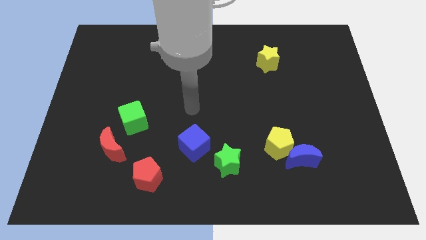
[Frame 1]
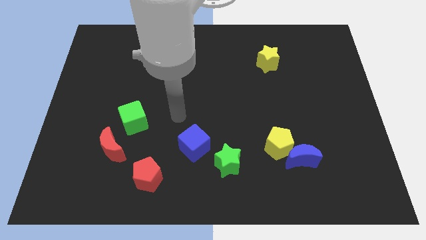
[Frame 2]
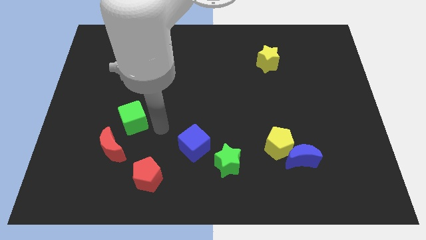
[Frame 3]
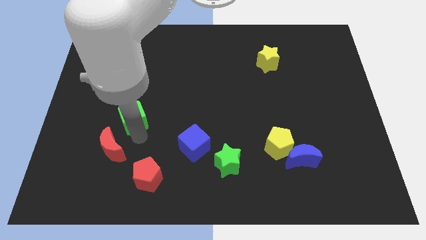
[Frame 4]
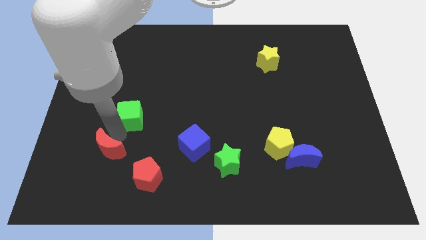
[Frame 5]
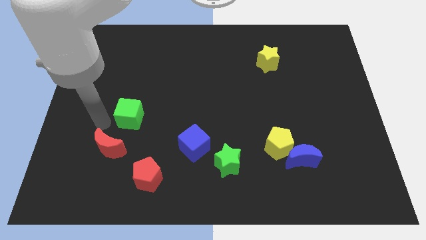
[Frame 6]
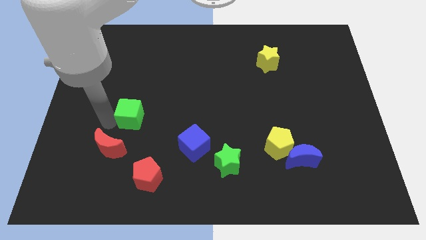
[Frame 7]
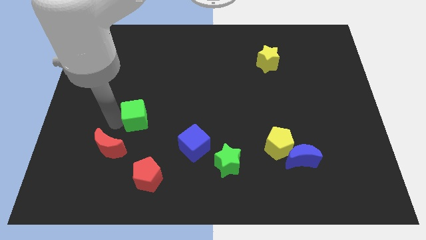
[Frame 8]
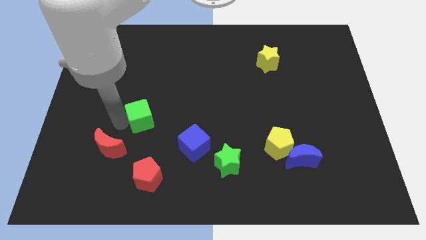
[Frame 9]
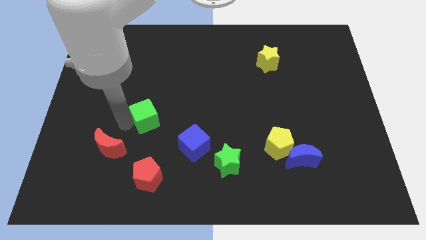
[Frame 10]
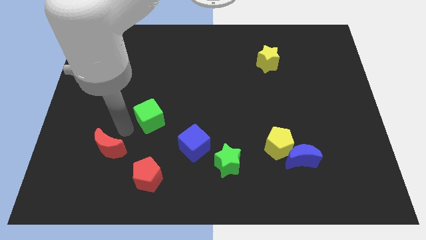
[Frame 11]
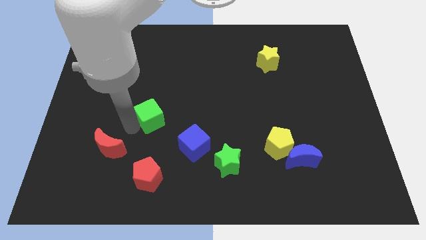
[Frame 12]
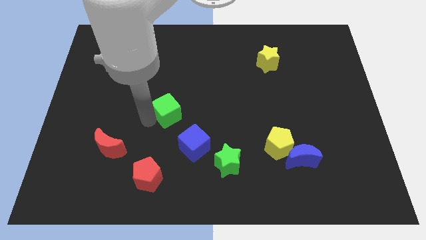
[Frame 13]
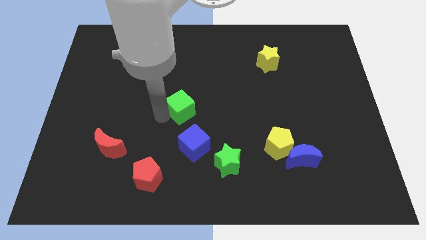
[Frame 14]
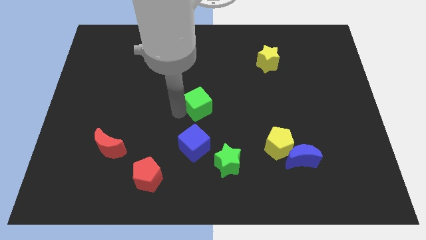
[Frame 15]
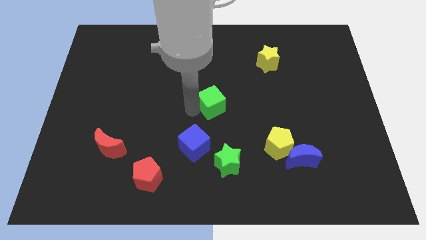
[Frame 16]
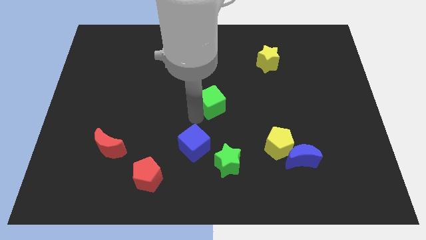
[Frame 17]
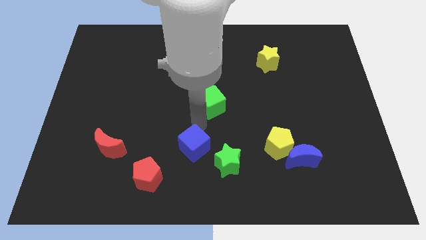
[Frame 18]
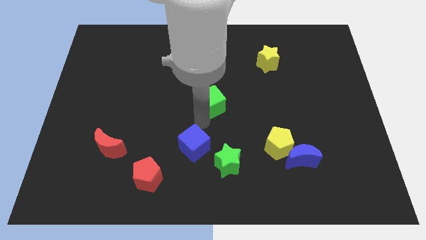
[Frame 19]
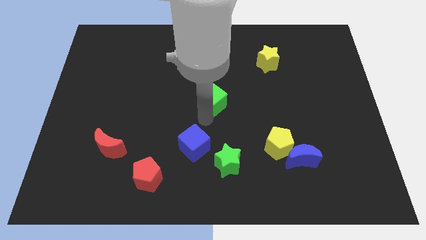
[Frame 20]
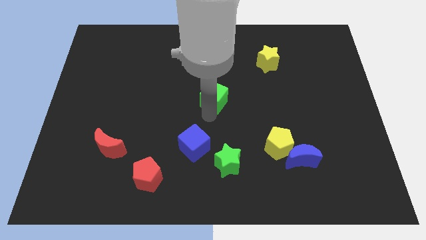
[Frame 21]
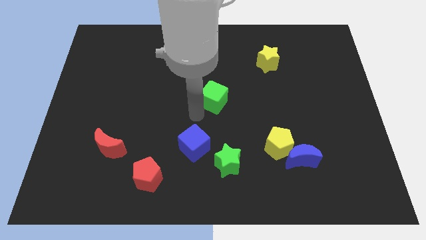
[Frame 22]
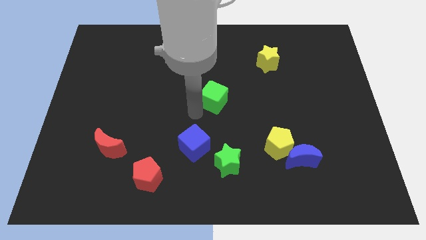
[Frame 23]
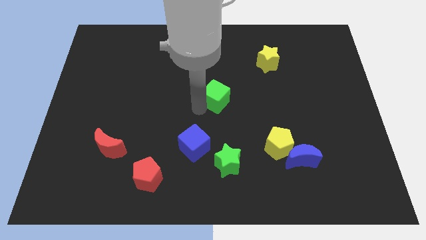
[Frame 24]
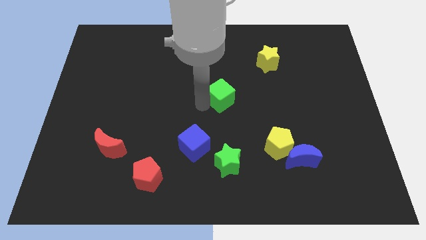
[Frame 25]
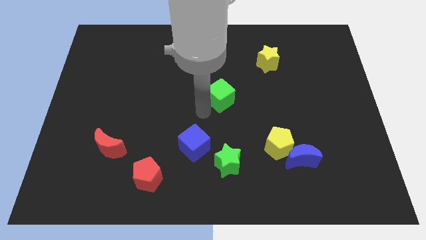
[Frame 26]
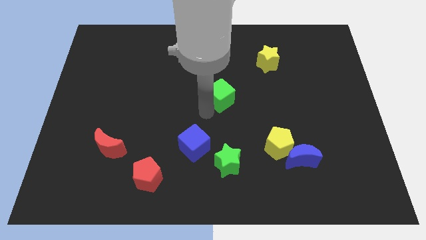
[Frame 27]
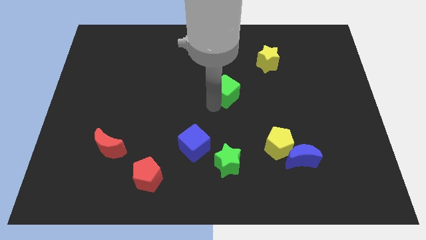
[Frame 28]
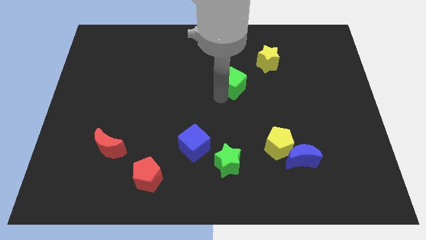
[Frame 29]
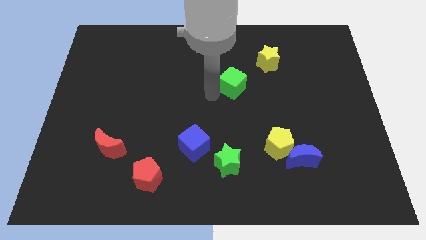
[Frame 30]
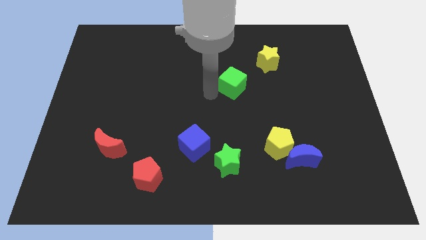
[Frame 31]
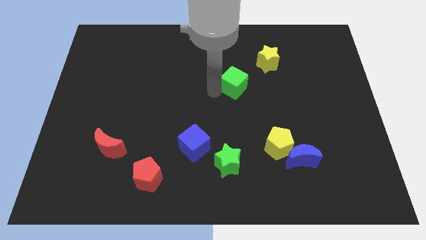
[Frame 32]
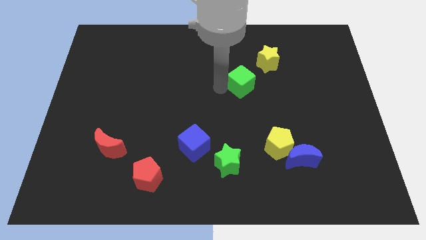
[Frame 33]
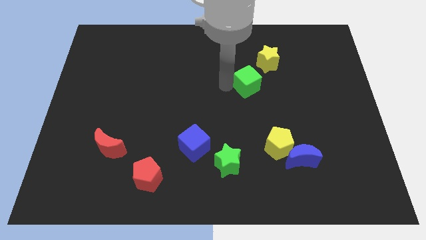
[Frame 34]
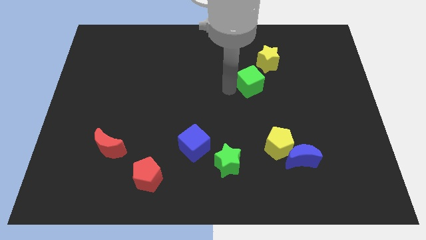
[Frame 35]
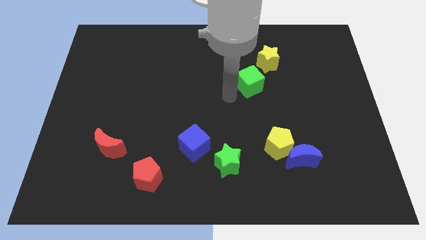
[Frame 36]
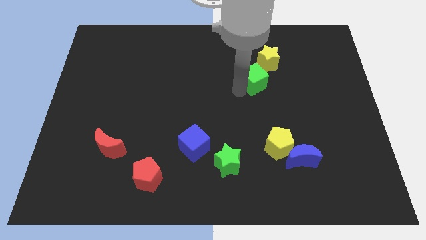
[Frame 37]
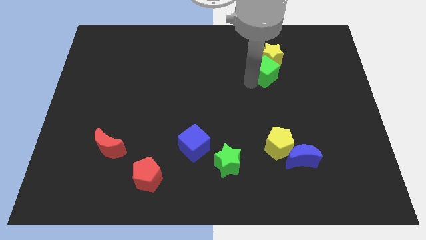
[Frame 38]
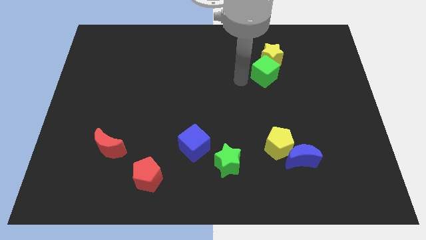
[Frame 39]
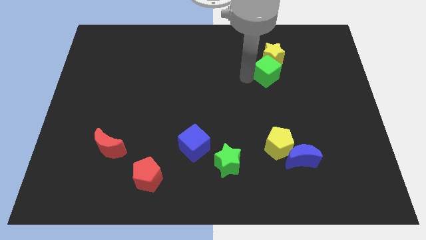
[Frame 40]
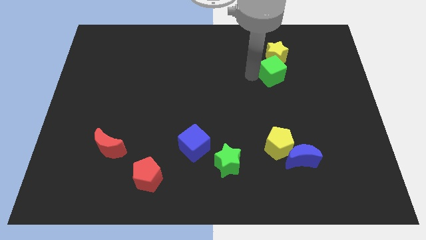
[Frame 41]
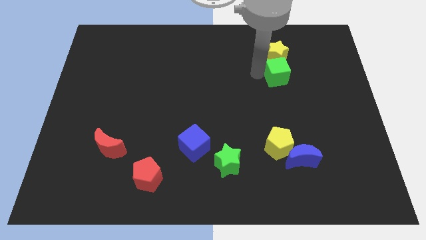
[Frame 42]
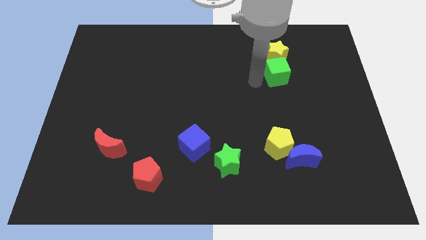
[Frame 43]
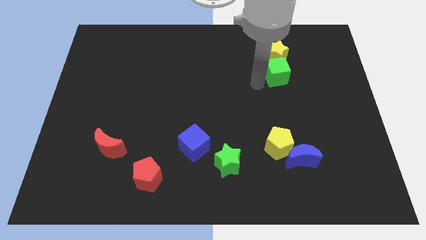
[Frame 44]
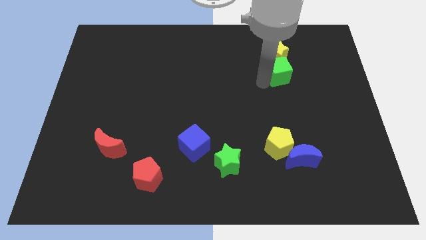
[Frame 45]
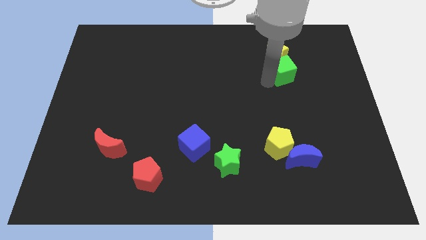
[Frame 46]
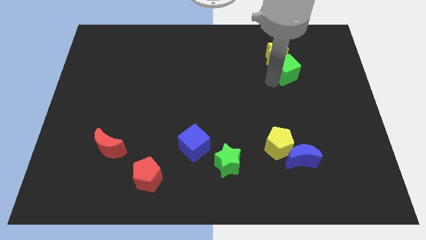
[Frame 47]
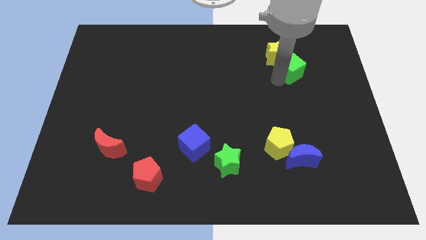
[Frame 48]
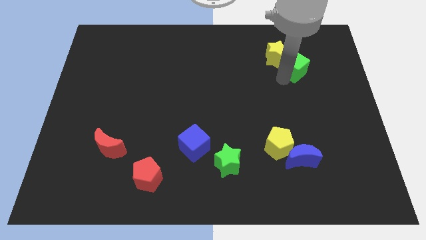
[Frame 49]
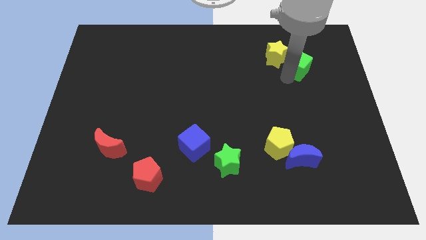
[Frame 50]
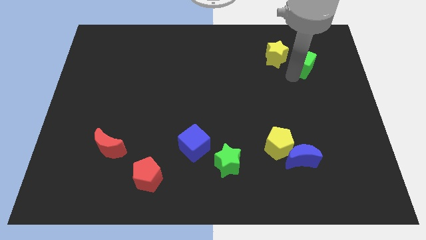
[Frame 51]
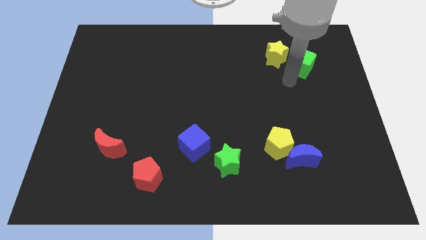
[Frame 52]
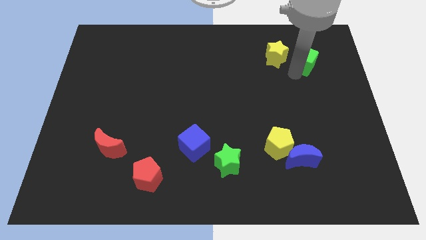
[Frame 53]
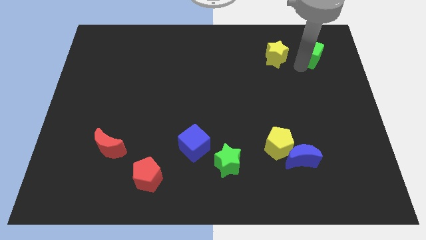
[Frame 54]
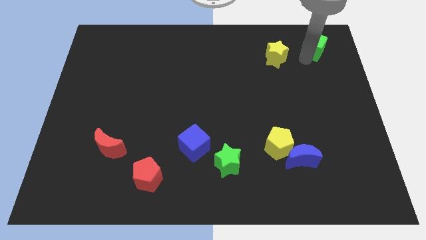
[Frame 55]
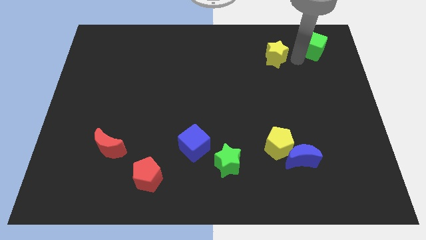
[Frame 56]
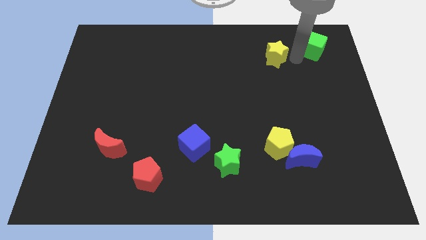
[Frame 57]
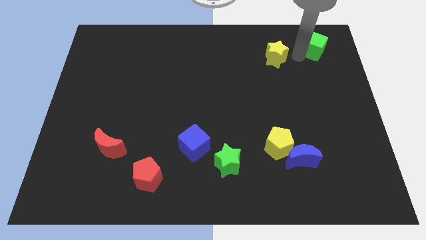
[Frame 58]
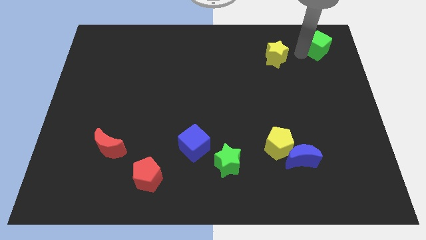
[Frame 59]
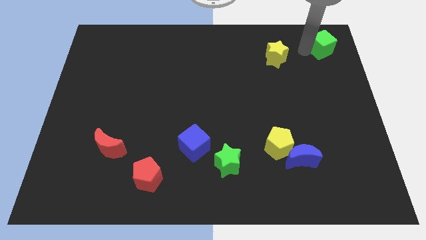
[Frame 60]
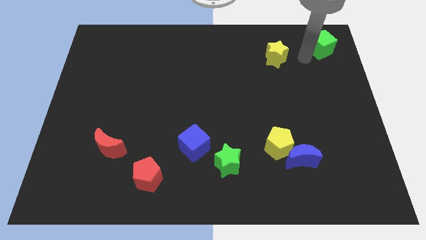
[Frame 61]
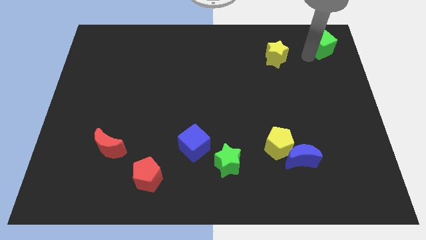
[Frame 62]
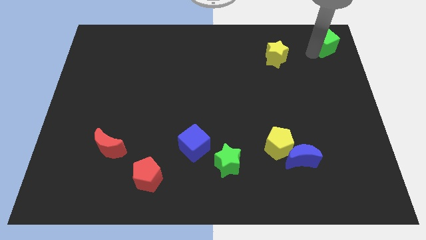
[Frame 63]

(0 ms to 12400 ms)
put the green cube to the top right

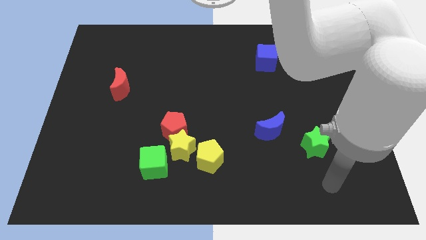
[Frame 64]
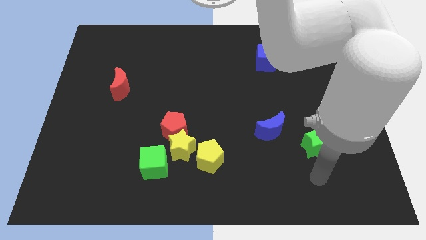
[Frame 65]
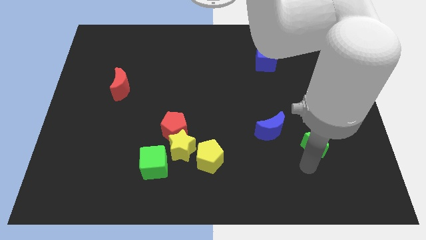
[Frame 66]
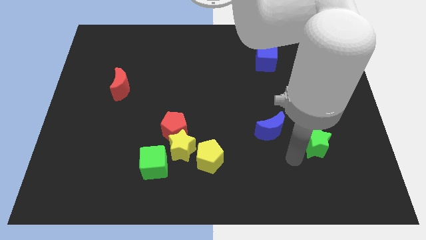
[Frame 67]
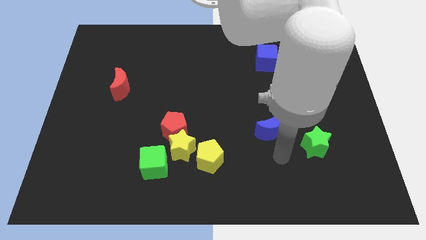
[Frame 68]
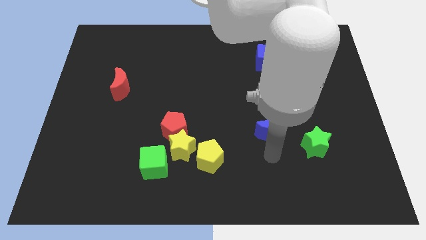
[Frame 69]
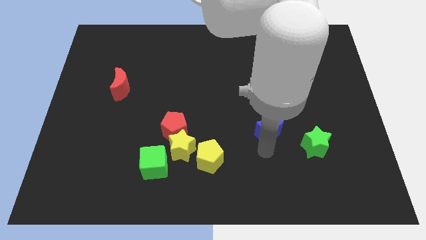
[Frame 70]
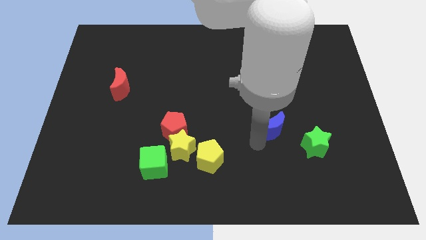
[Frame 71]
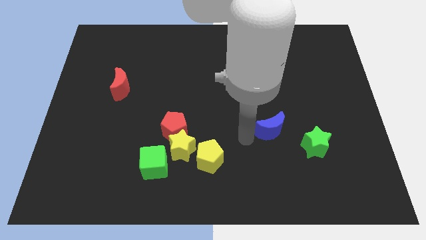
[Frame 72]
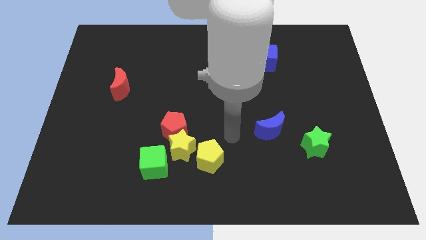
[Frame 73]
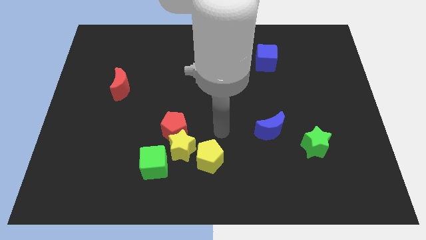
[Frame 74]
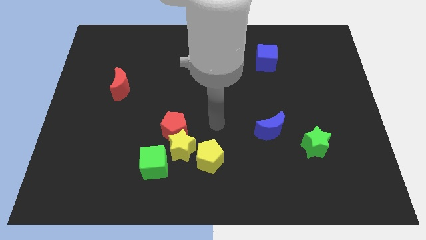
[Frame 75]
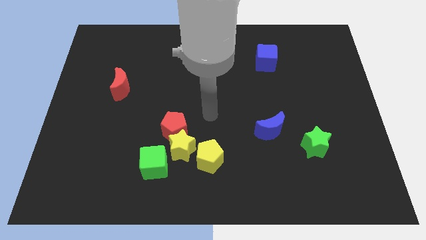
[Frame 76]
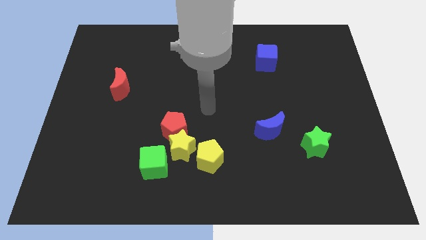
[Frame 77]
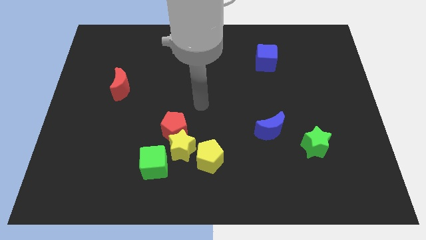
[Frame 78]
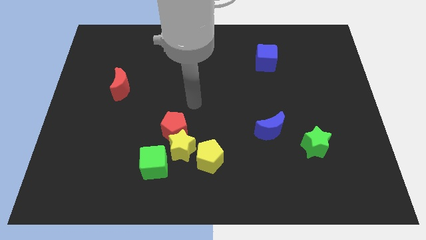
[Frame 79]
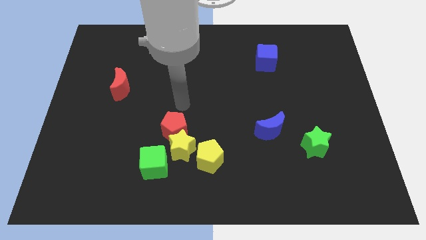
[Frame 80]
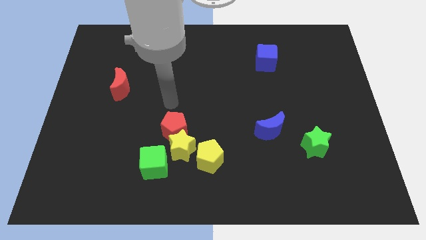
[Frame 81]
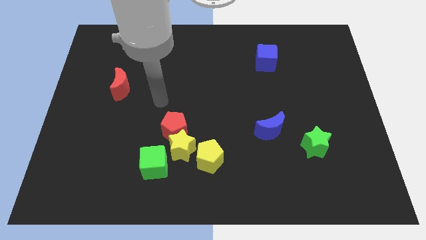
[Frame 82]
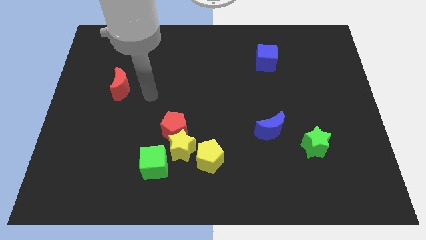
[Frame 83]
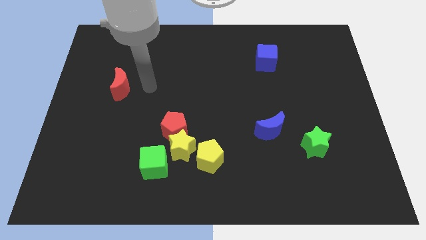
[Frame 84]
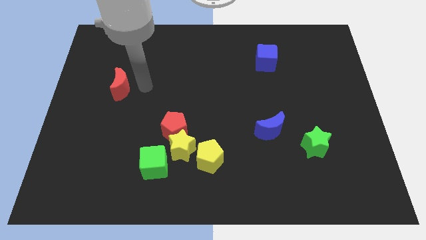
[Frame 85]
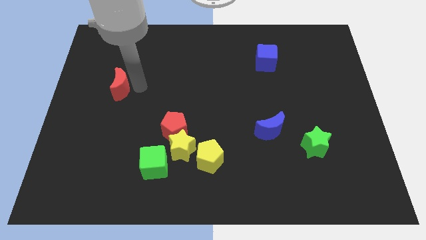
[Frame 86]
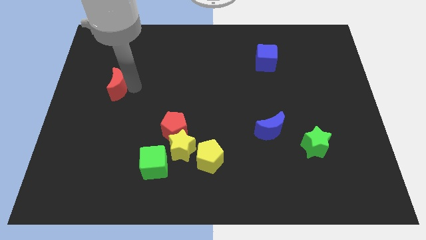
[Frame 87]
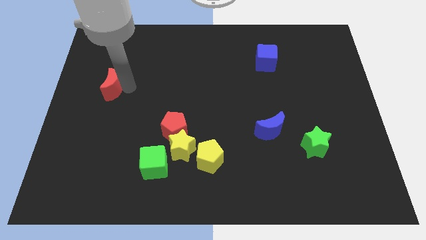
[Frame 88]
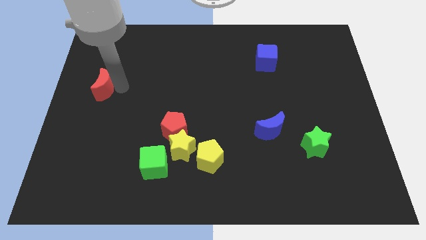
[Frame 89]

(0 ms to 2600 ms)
move the red moon to the left side
